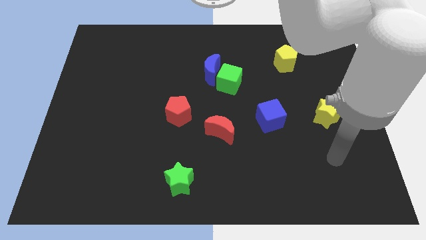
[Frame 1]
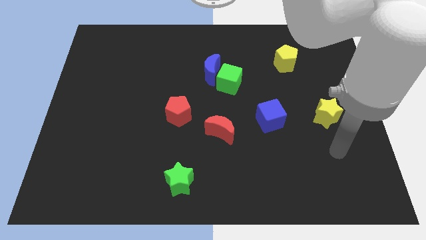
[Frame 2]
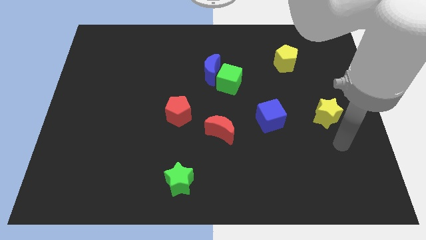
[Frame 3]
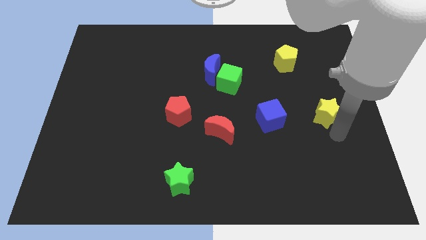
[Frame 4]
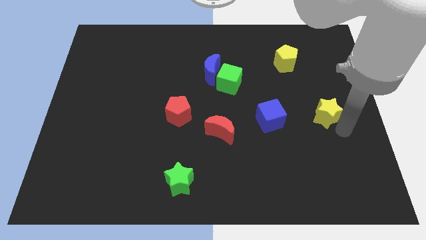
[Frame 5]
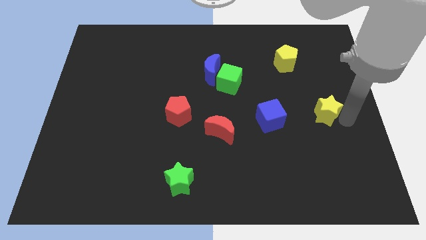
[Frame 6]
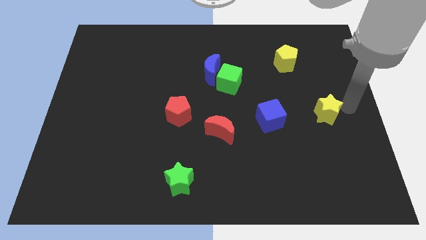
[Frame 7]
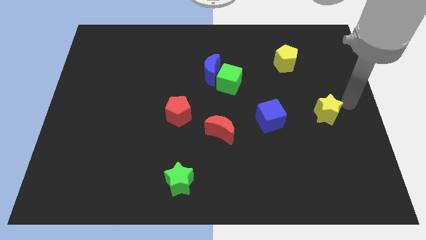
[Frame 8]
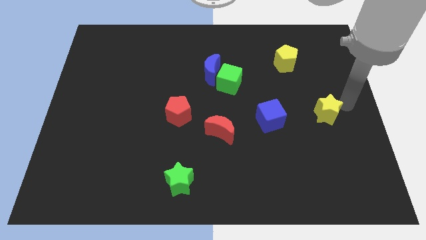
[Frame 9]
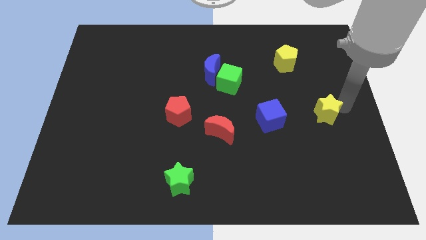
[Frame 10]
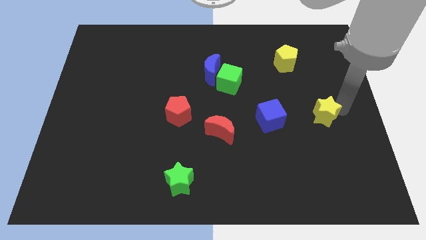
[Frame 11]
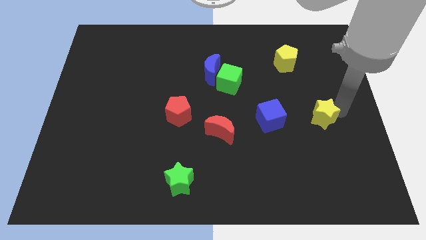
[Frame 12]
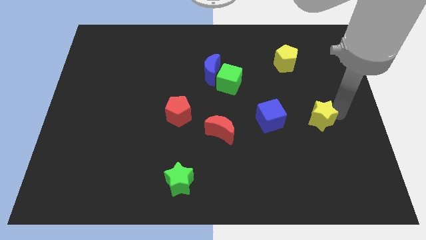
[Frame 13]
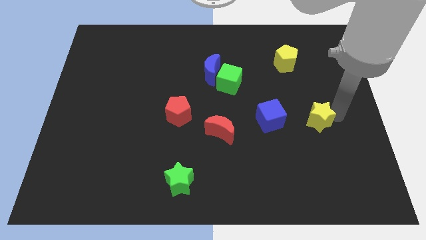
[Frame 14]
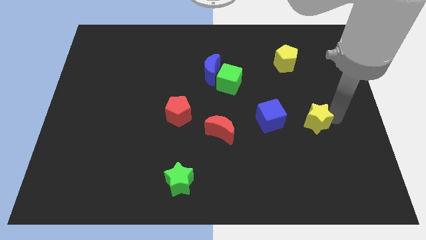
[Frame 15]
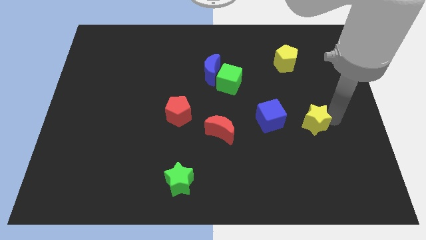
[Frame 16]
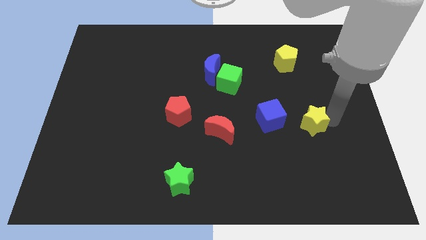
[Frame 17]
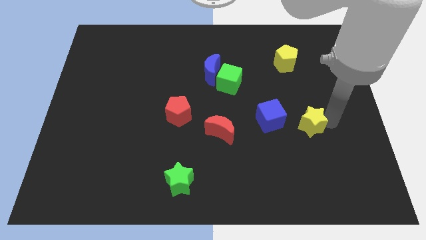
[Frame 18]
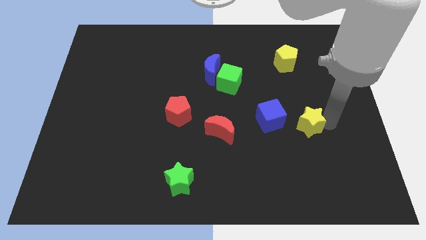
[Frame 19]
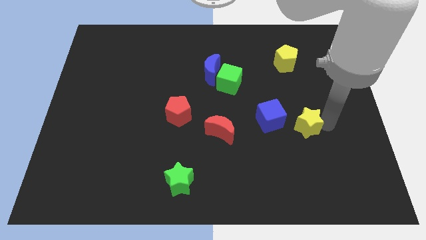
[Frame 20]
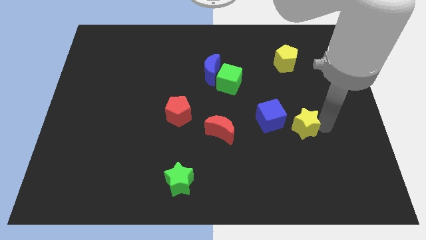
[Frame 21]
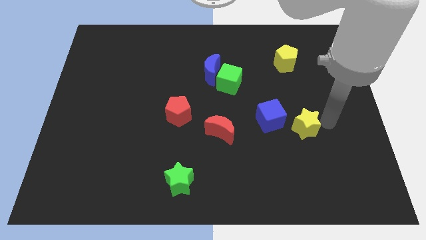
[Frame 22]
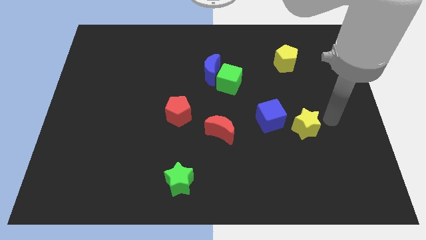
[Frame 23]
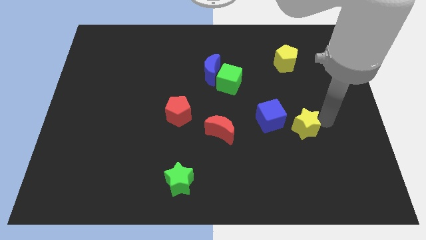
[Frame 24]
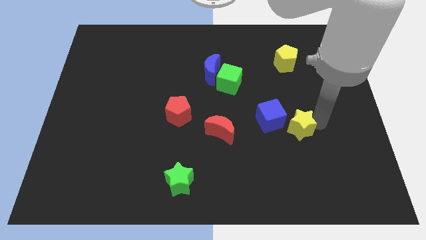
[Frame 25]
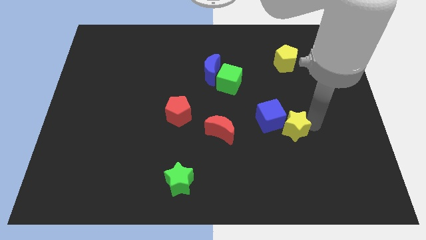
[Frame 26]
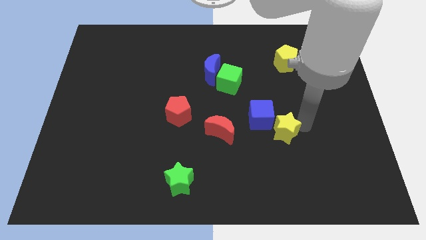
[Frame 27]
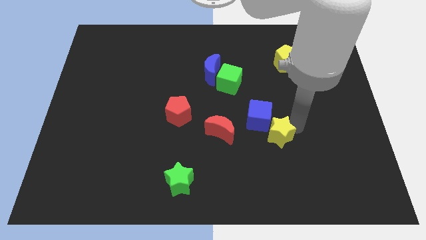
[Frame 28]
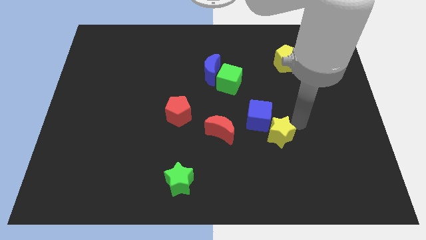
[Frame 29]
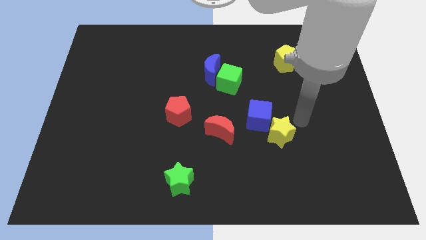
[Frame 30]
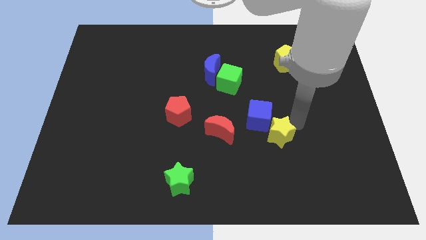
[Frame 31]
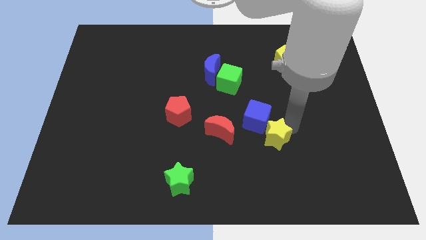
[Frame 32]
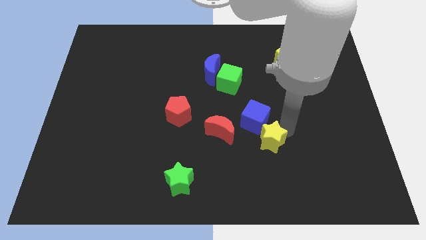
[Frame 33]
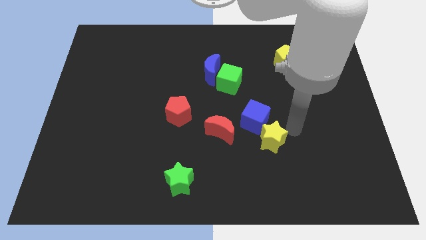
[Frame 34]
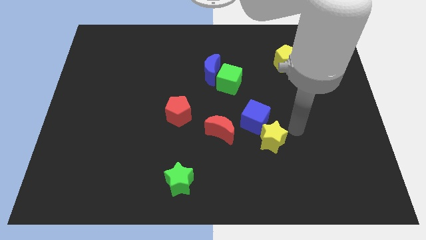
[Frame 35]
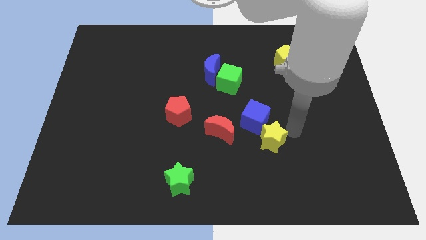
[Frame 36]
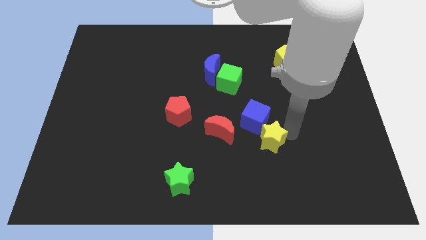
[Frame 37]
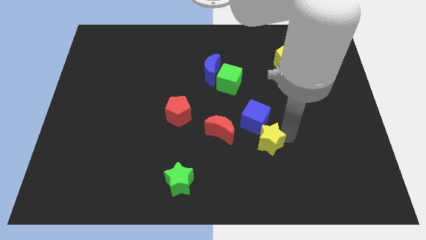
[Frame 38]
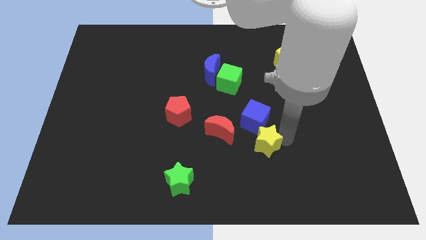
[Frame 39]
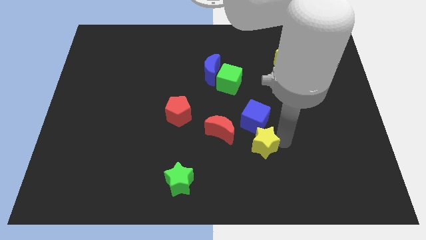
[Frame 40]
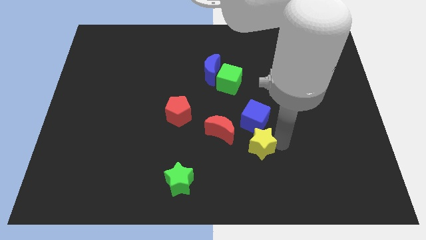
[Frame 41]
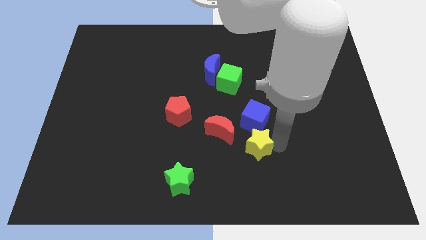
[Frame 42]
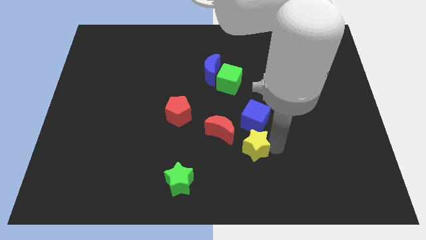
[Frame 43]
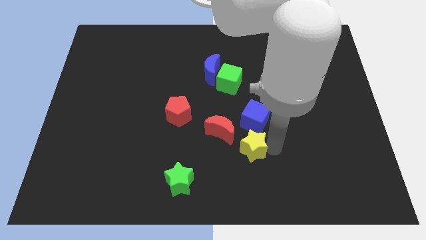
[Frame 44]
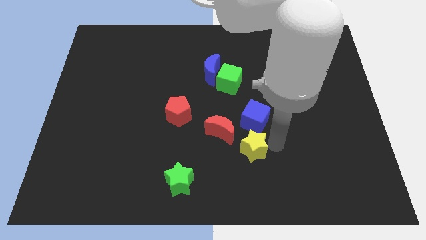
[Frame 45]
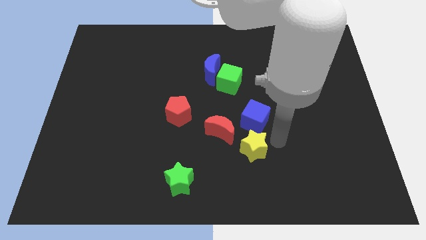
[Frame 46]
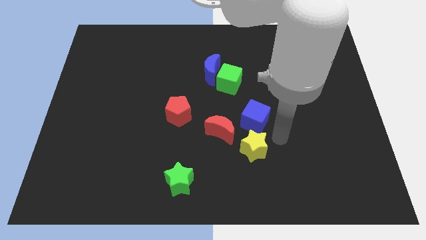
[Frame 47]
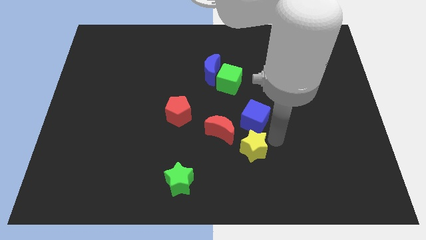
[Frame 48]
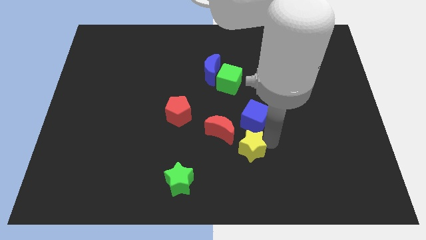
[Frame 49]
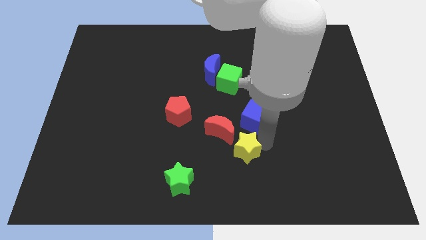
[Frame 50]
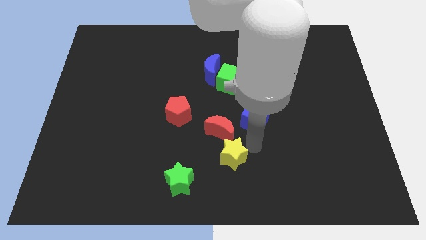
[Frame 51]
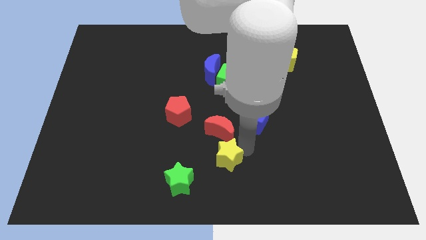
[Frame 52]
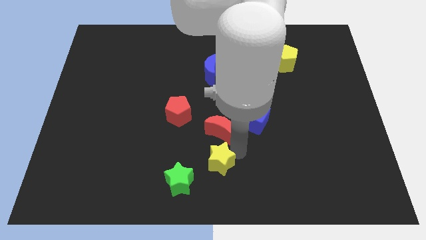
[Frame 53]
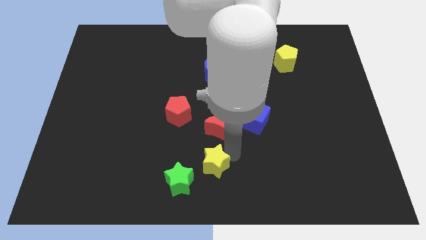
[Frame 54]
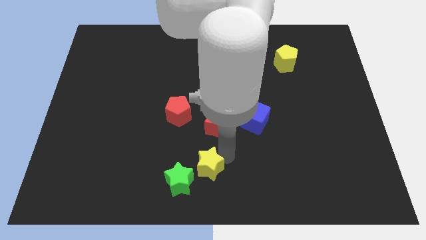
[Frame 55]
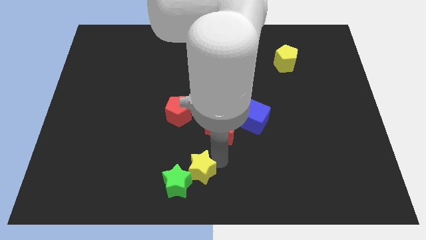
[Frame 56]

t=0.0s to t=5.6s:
slide the yellow star towards the green star

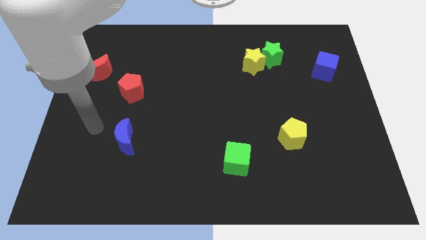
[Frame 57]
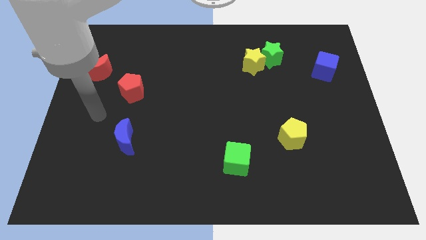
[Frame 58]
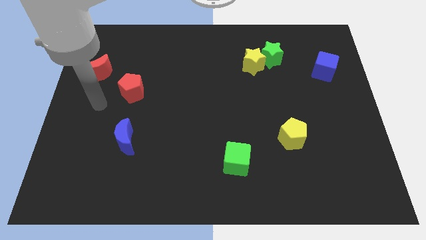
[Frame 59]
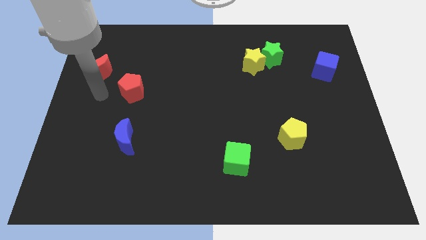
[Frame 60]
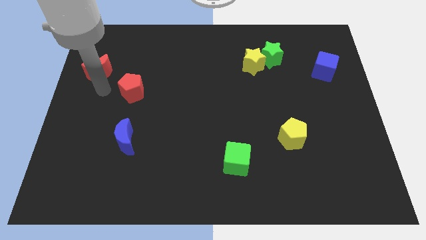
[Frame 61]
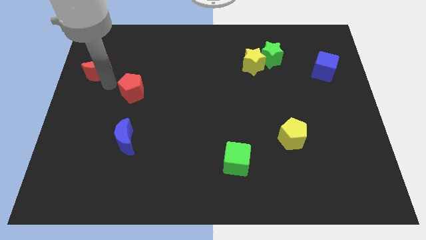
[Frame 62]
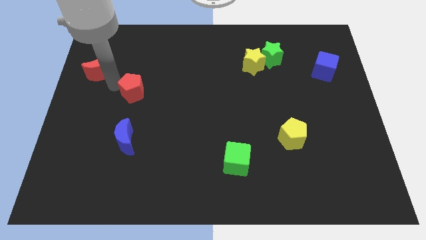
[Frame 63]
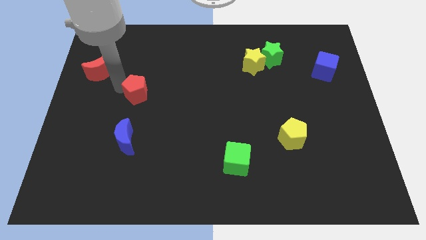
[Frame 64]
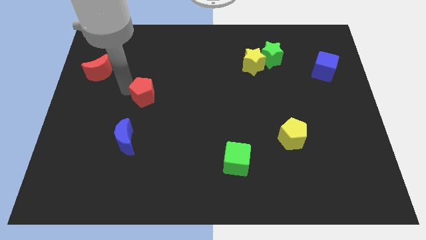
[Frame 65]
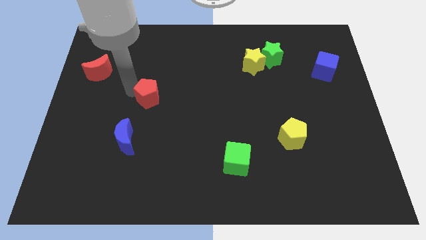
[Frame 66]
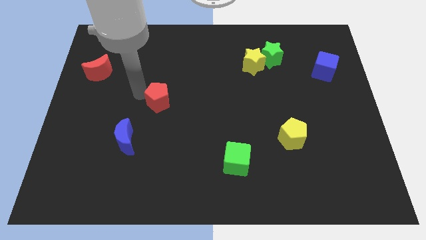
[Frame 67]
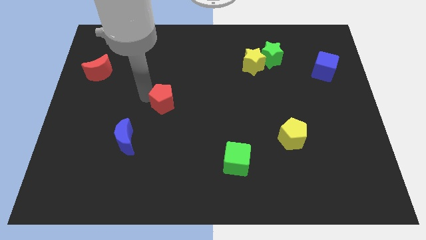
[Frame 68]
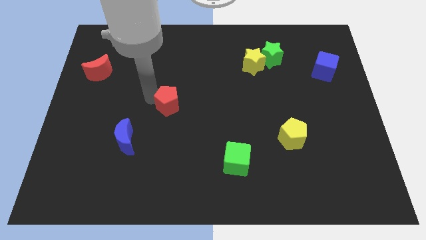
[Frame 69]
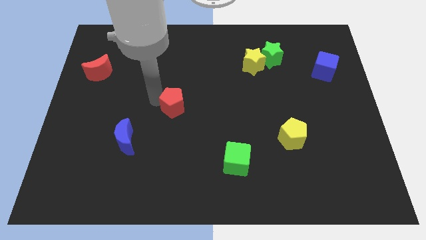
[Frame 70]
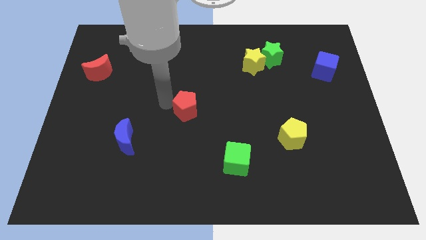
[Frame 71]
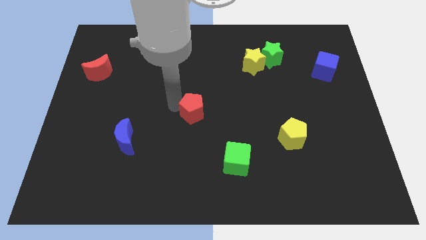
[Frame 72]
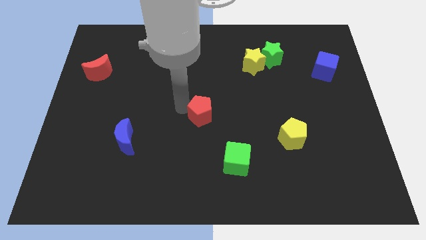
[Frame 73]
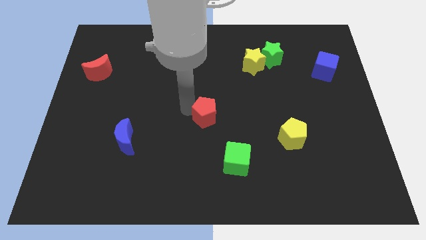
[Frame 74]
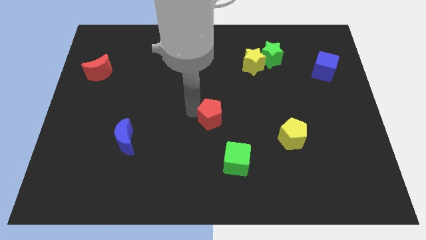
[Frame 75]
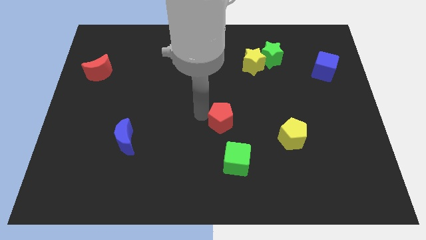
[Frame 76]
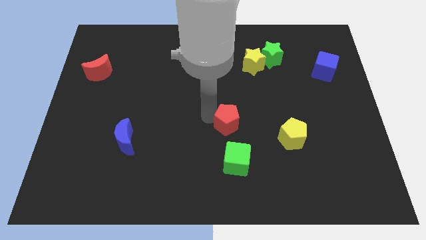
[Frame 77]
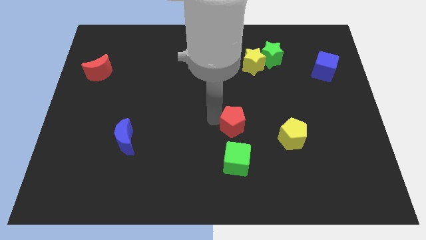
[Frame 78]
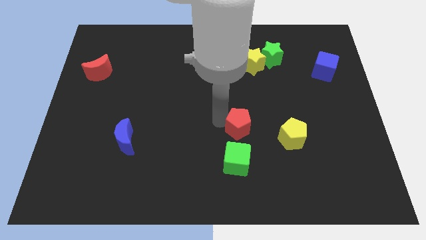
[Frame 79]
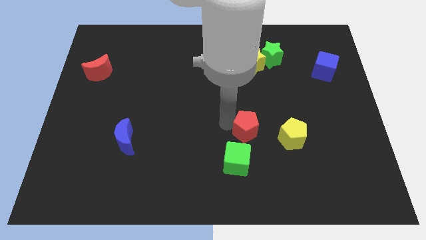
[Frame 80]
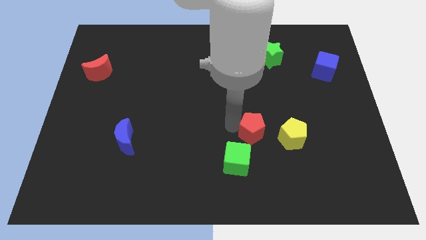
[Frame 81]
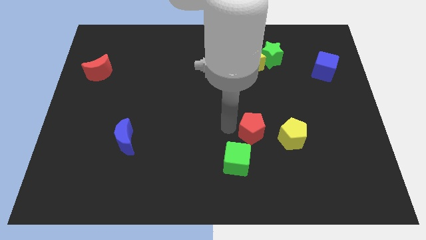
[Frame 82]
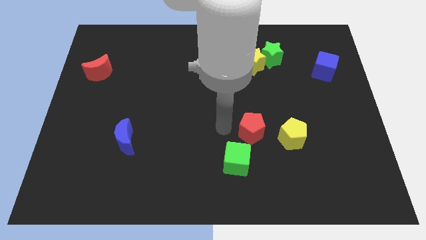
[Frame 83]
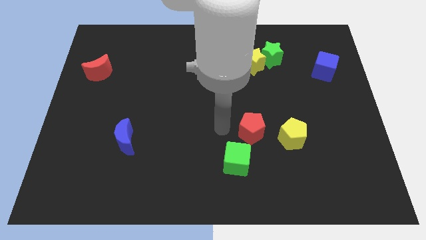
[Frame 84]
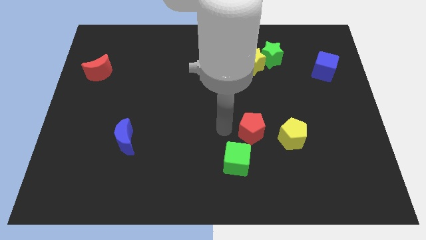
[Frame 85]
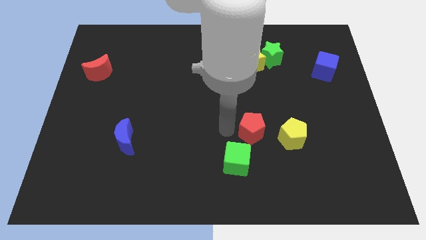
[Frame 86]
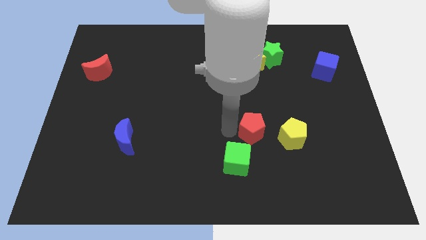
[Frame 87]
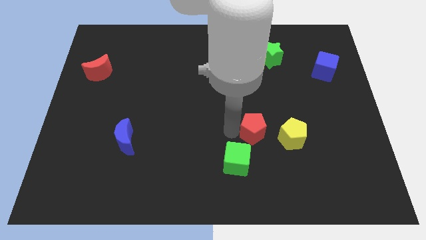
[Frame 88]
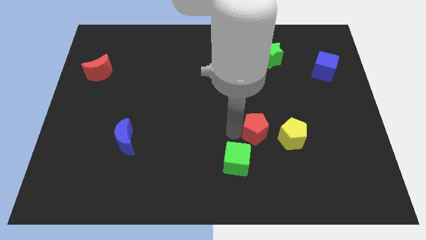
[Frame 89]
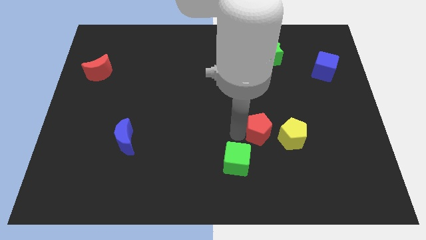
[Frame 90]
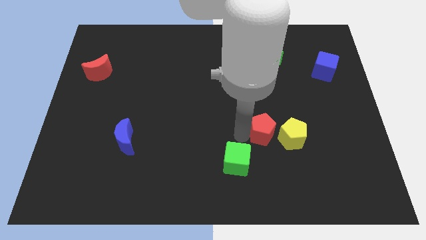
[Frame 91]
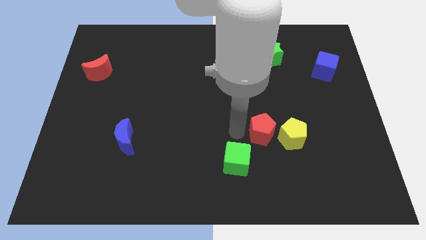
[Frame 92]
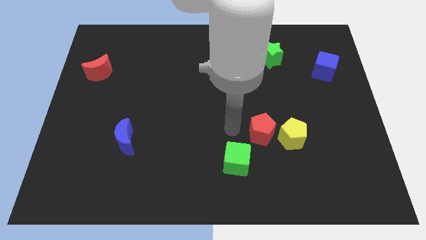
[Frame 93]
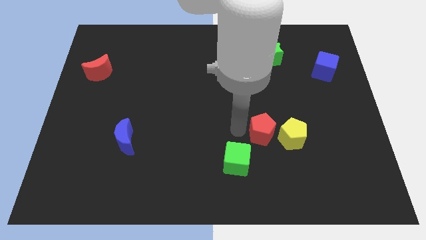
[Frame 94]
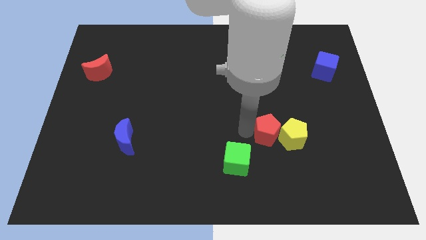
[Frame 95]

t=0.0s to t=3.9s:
slide the red pentagon towards the yellow pentagon
